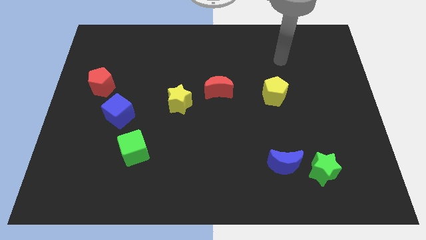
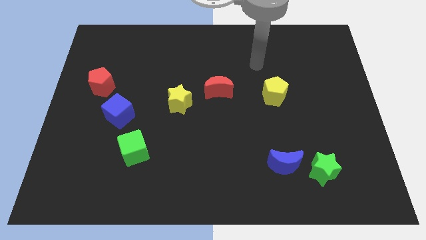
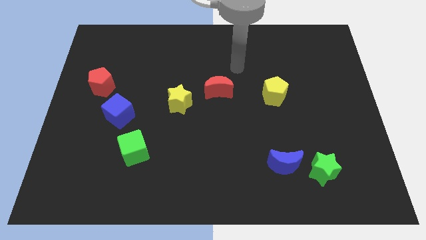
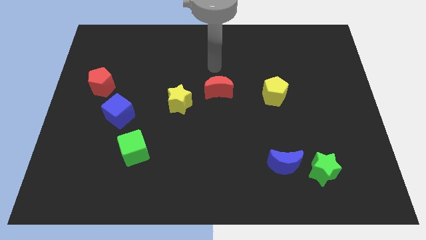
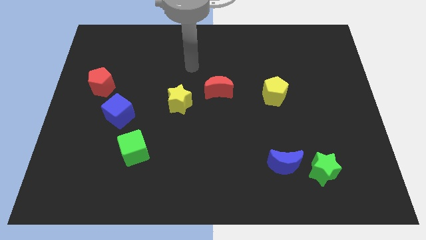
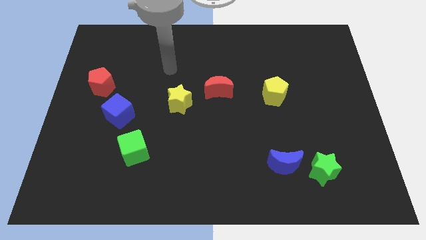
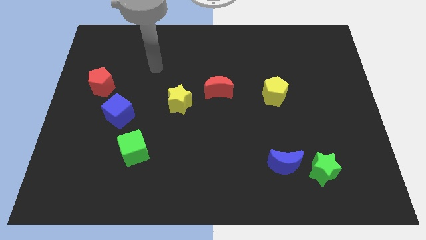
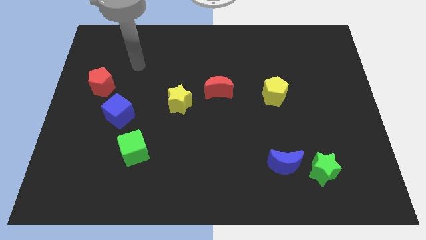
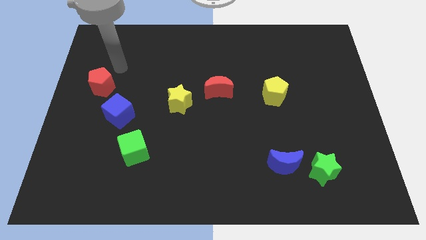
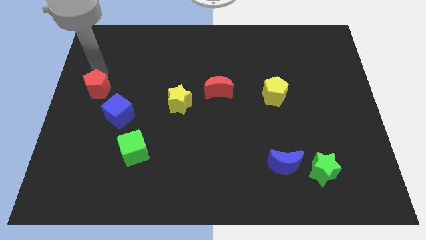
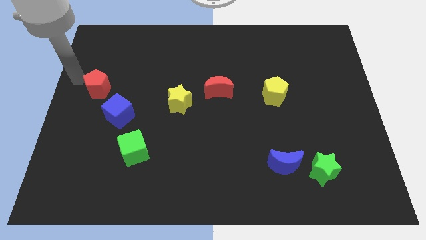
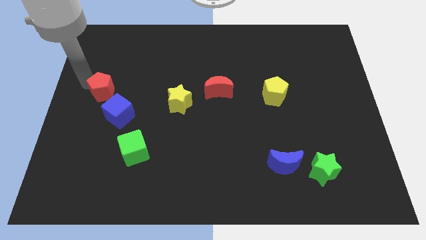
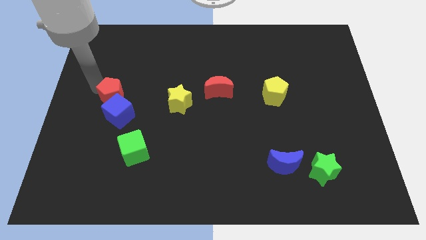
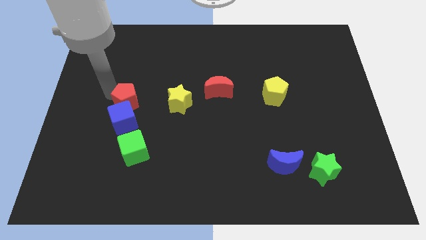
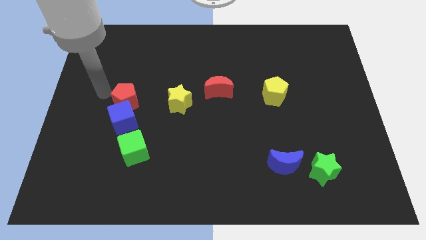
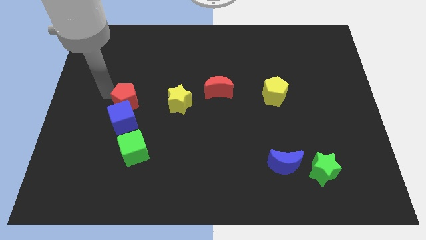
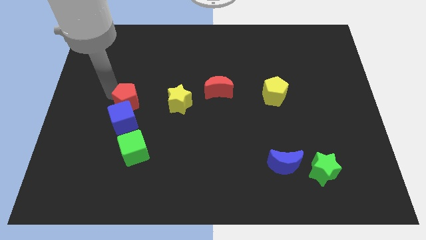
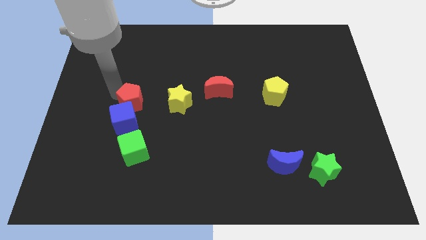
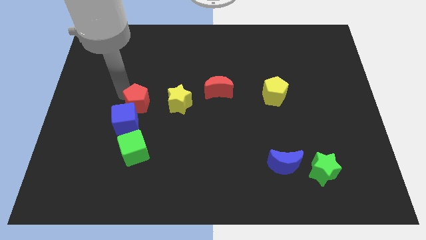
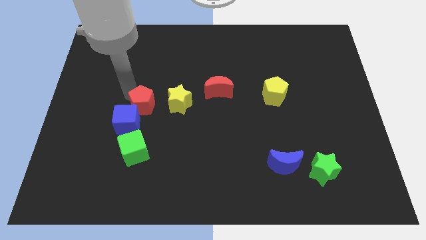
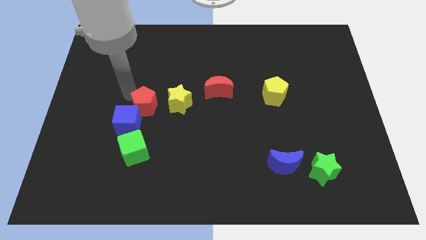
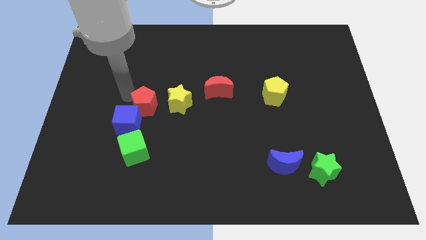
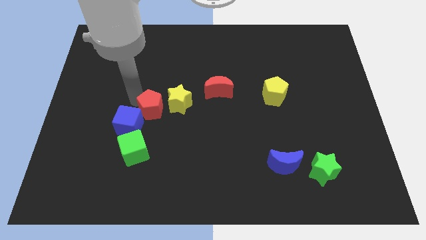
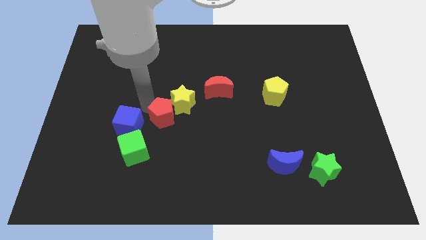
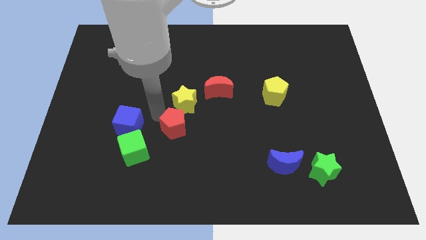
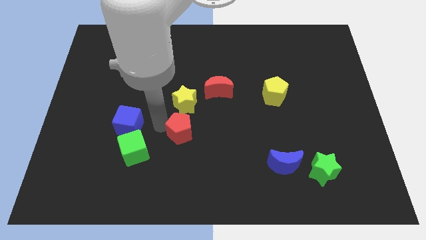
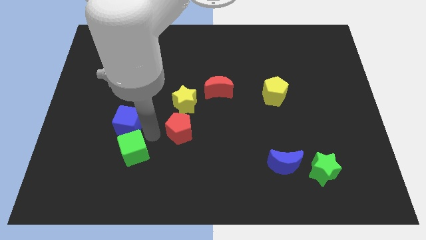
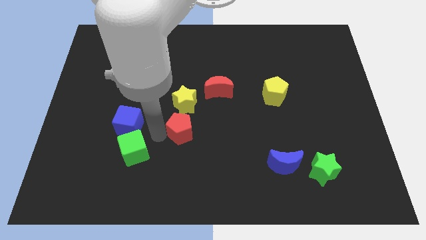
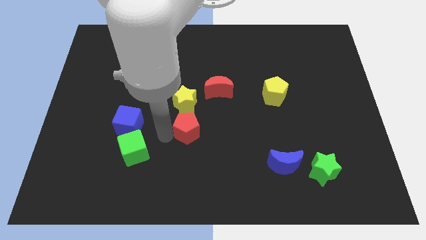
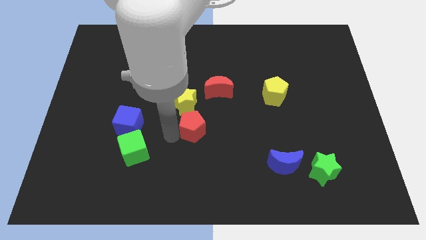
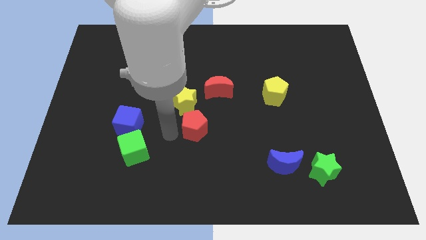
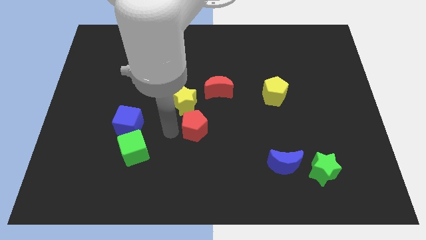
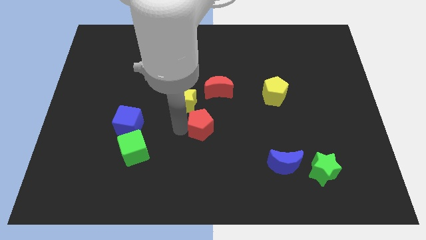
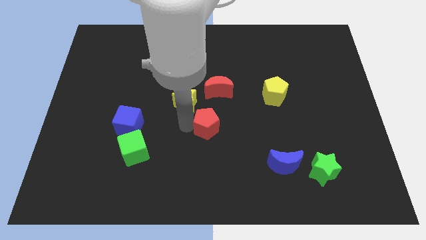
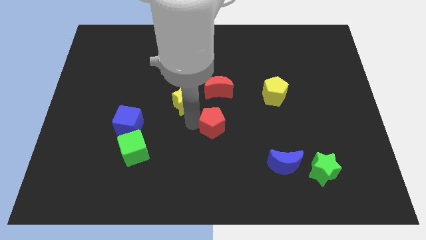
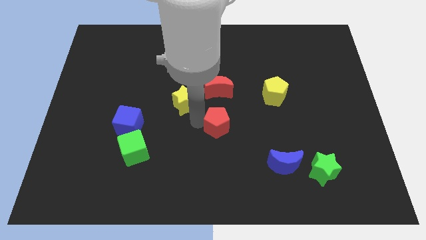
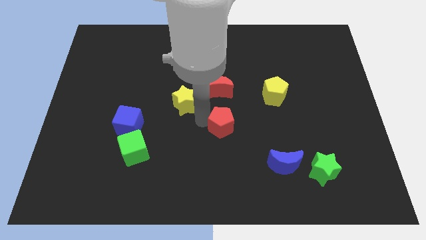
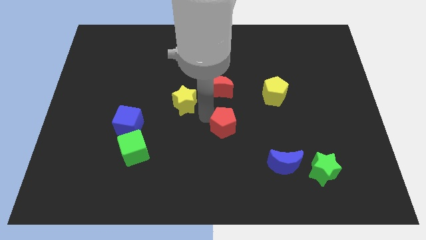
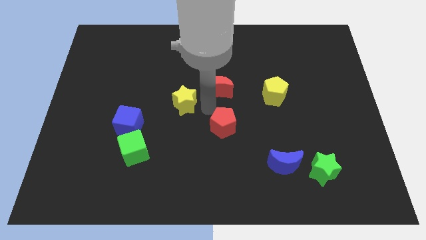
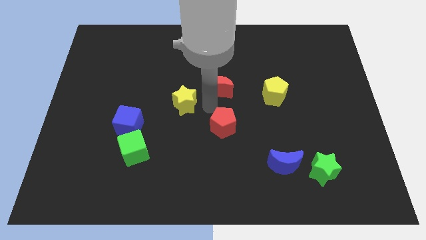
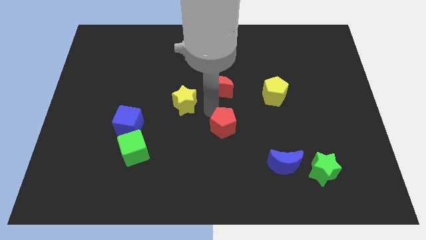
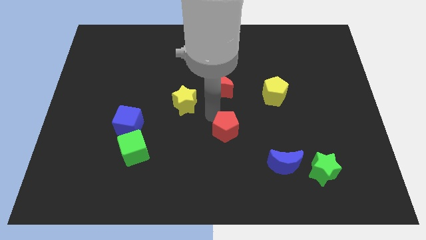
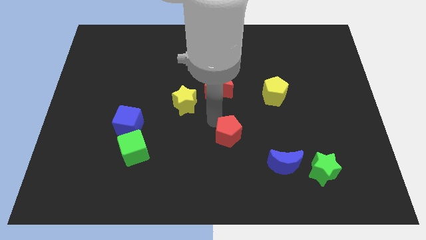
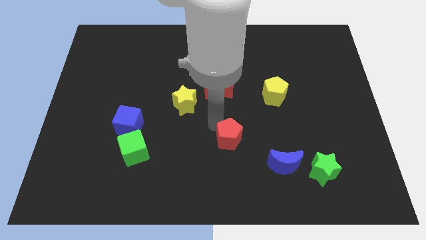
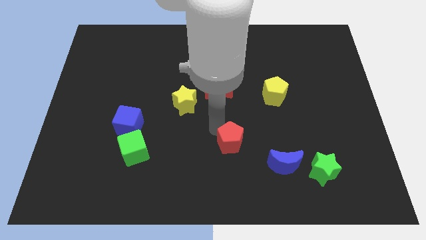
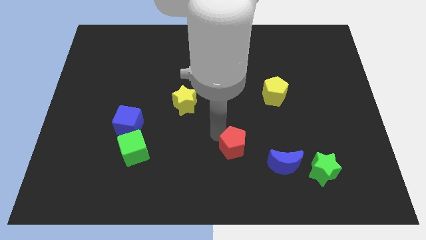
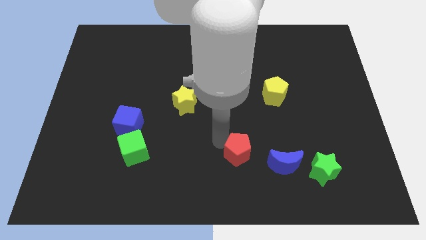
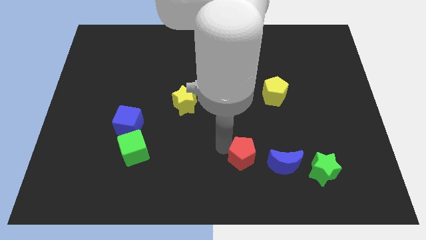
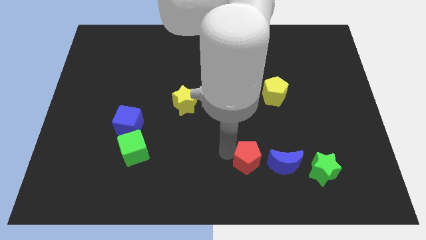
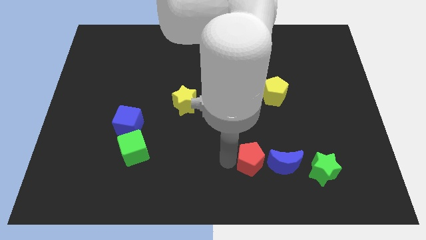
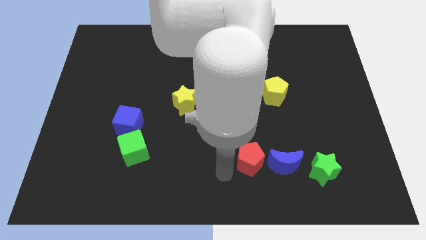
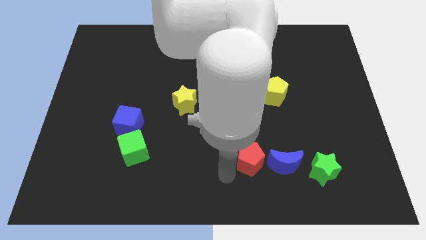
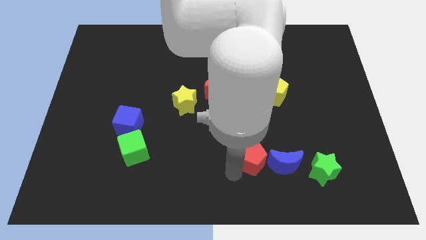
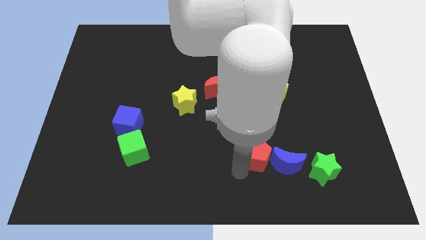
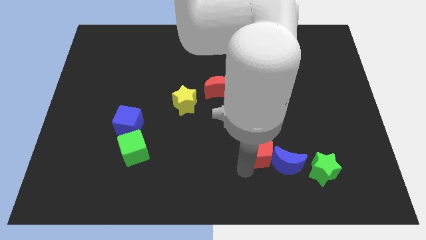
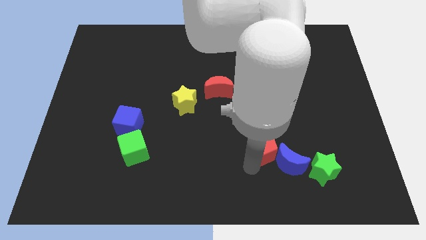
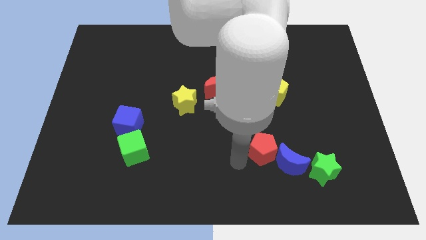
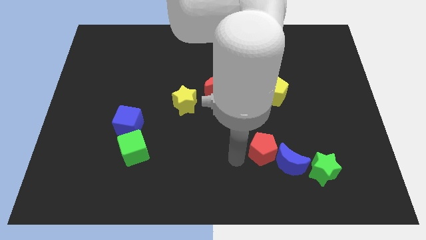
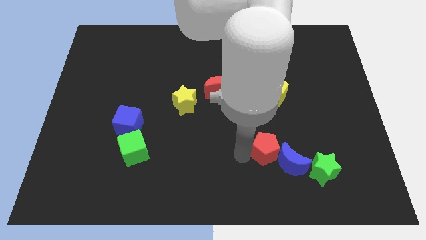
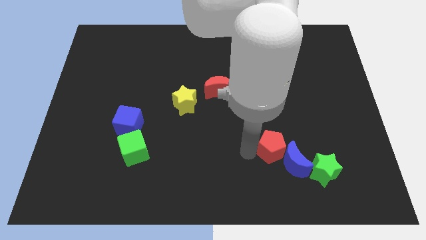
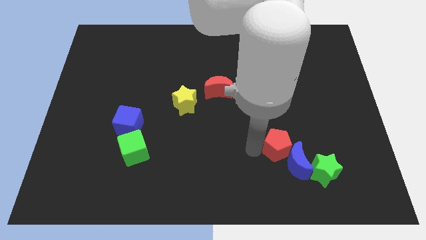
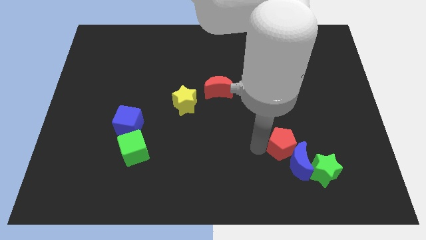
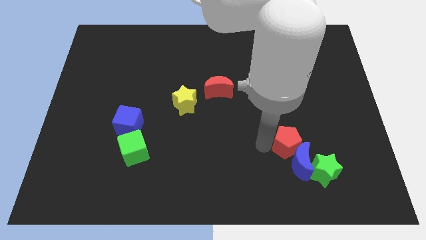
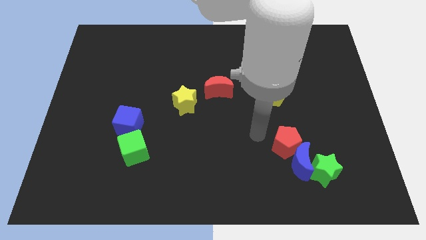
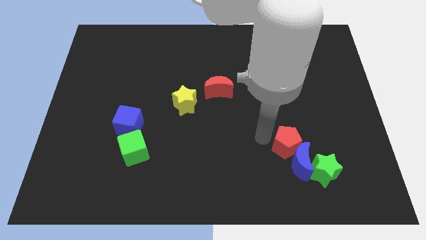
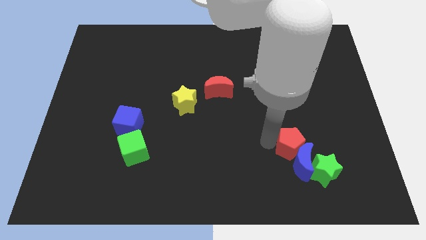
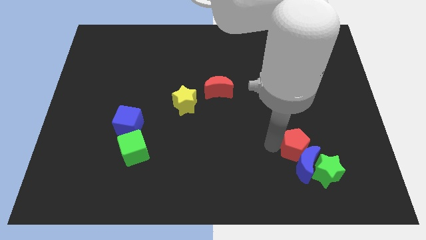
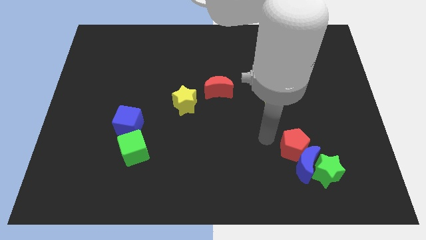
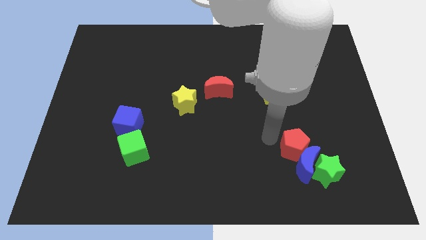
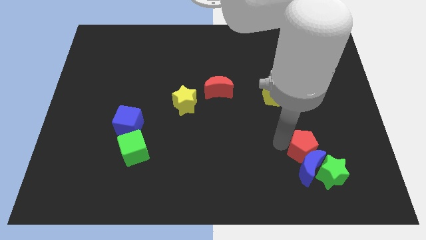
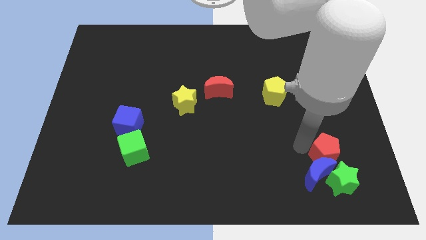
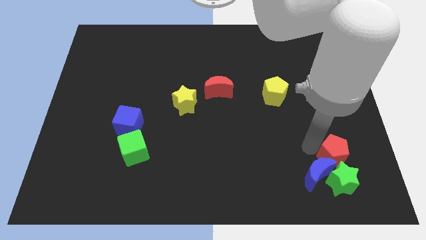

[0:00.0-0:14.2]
move the red pentagon to the green star

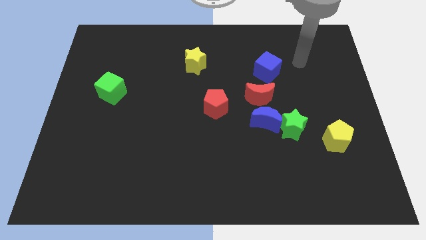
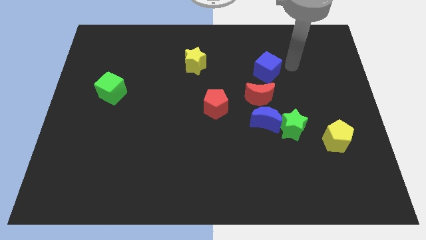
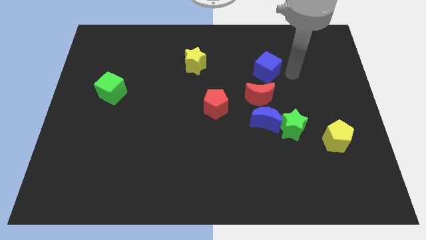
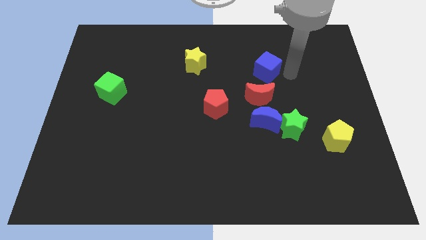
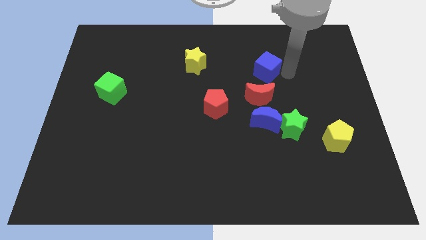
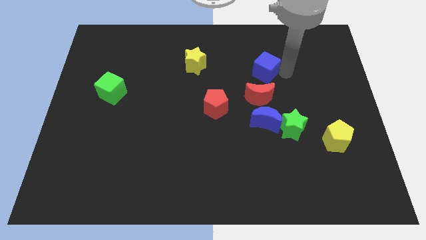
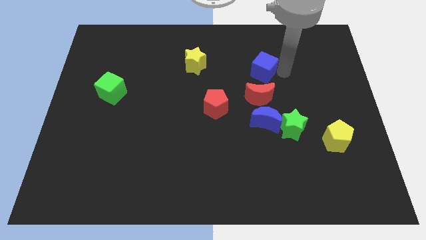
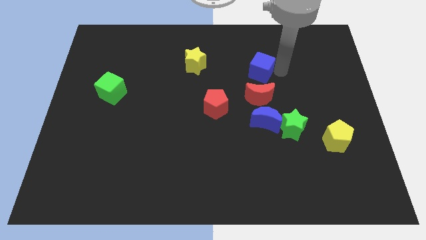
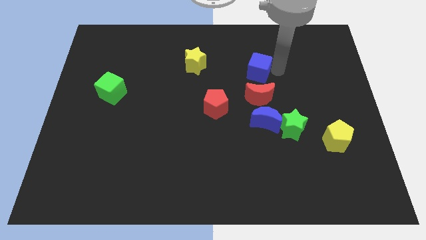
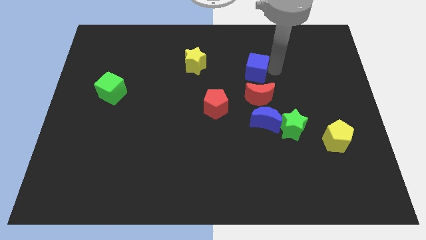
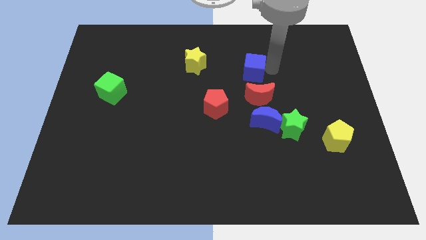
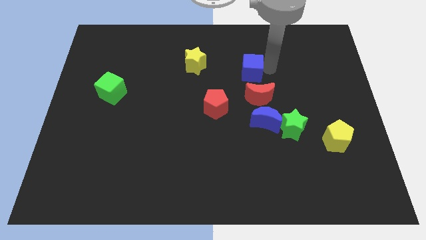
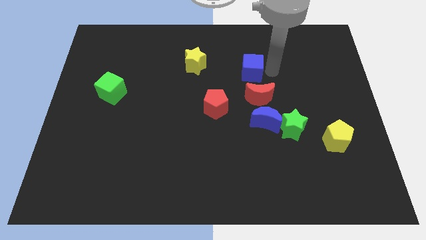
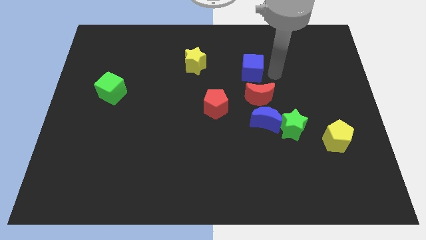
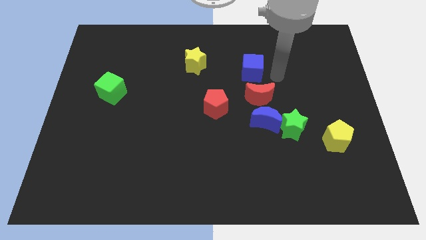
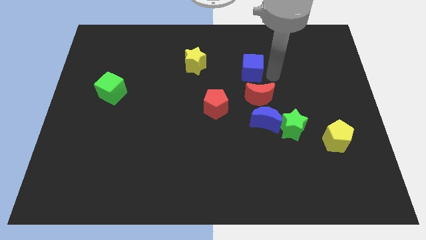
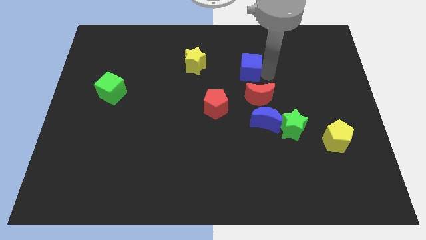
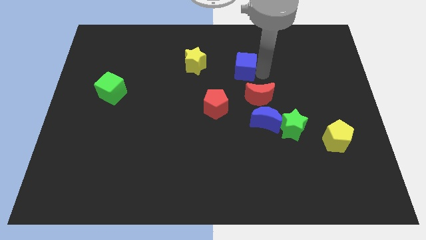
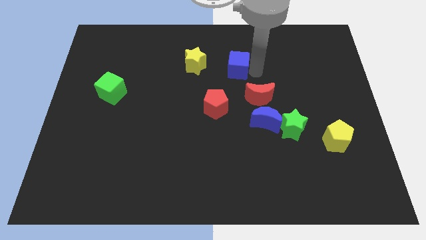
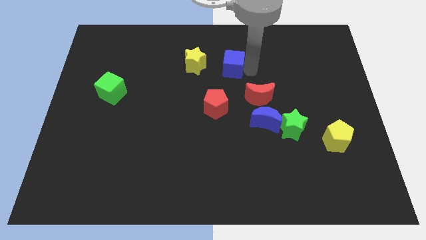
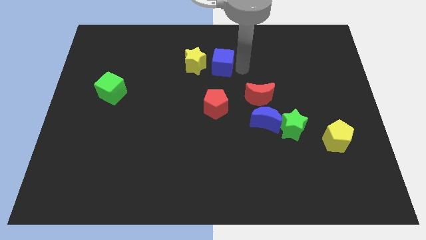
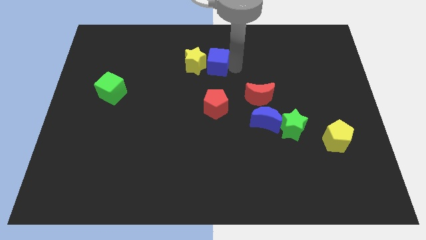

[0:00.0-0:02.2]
put the blue cube to the yellow star
